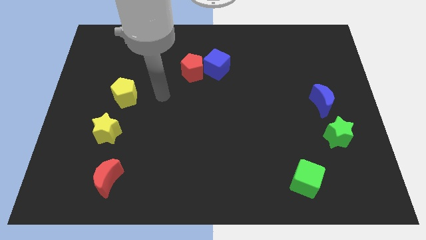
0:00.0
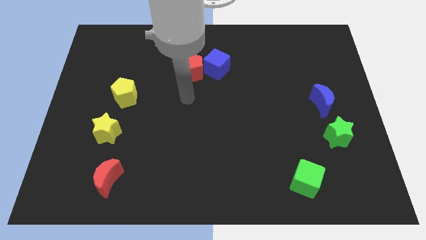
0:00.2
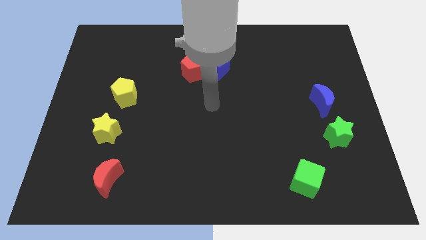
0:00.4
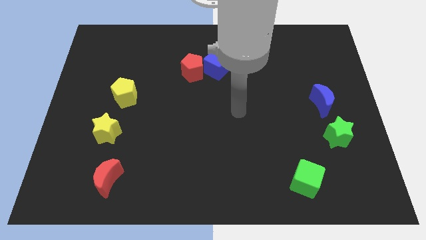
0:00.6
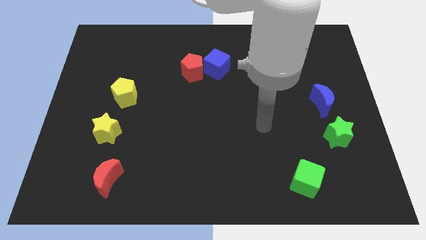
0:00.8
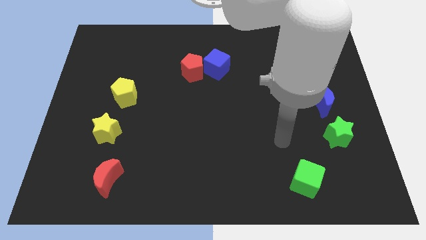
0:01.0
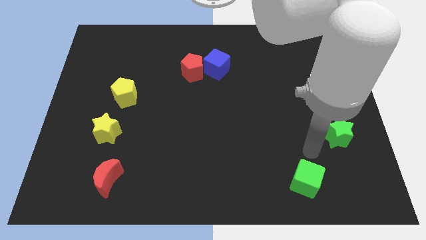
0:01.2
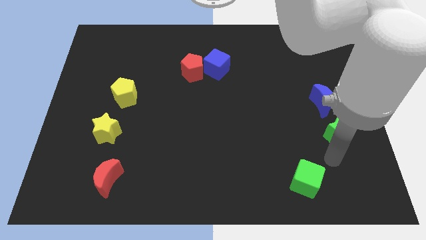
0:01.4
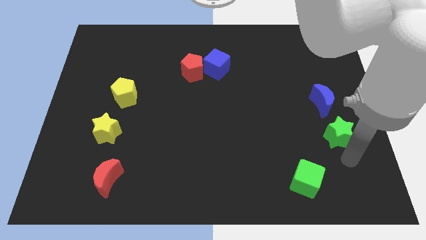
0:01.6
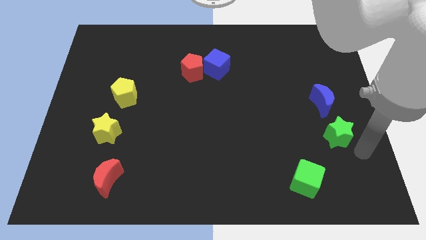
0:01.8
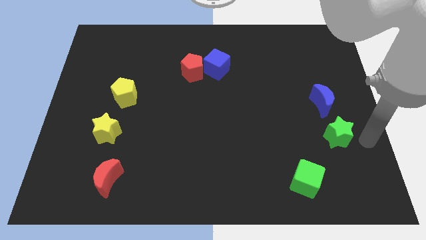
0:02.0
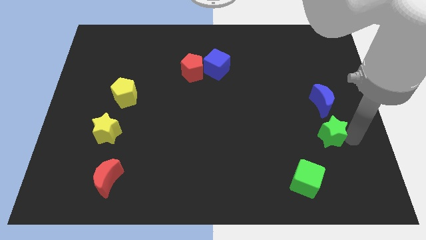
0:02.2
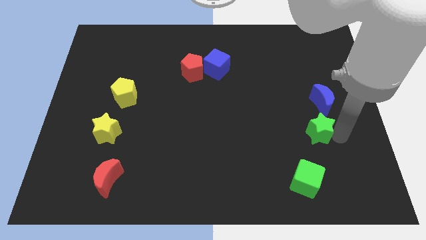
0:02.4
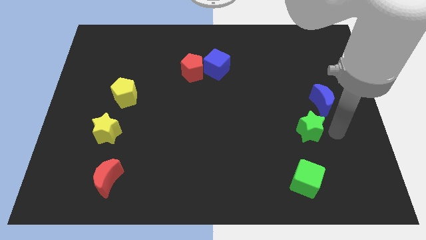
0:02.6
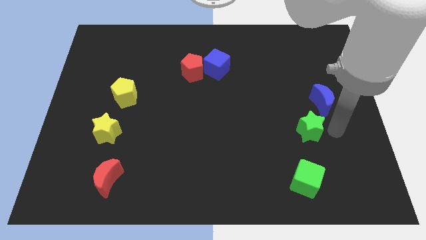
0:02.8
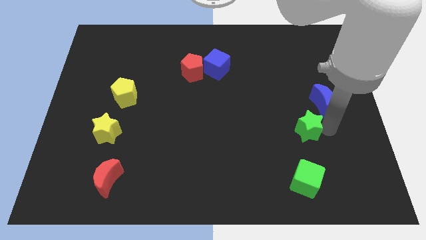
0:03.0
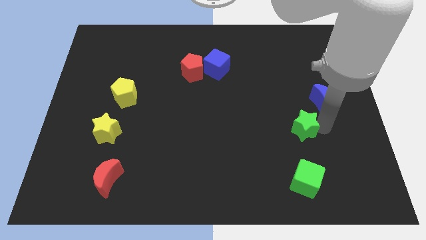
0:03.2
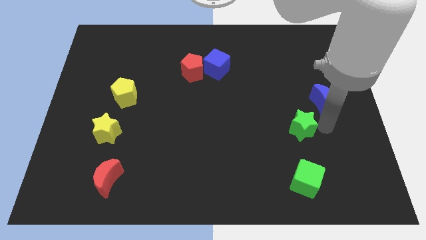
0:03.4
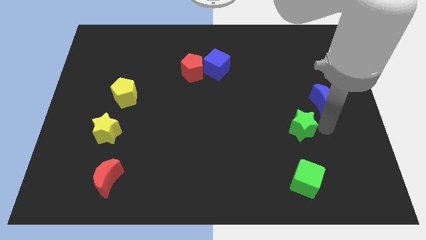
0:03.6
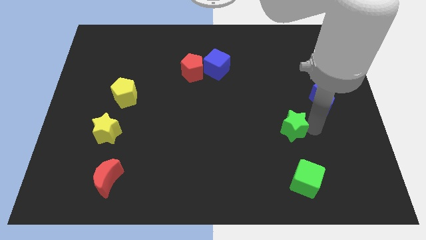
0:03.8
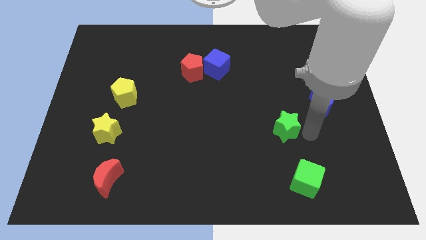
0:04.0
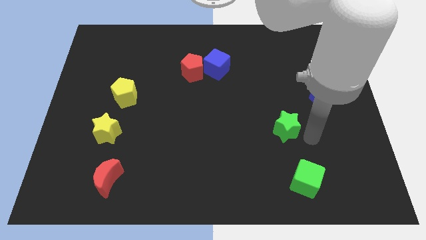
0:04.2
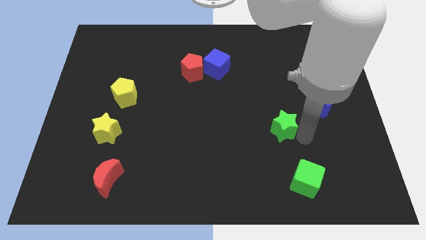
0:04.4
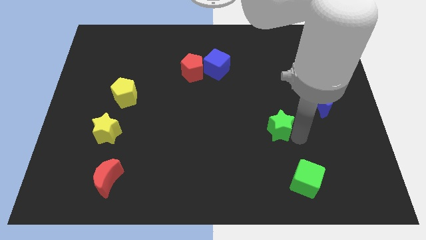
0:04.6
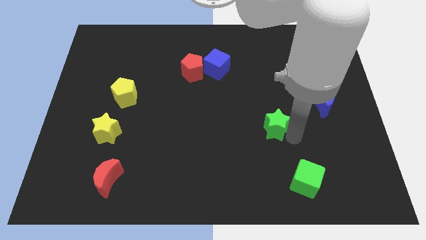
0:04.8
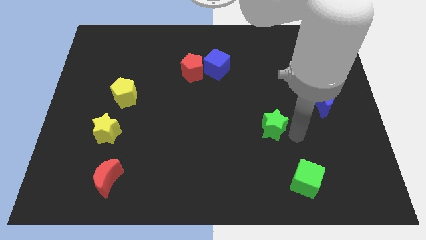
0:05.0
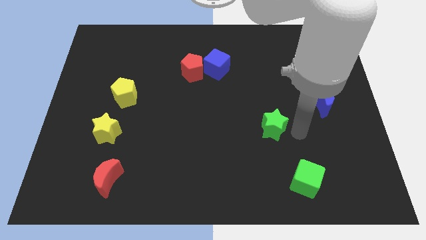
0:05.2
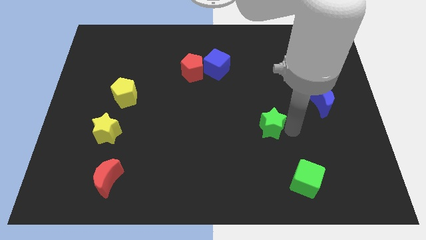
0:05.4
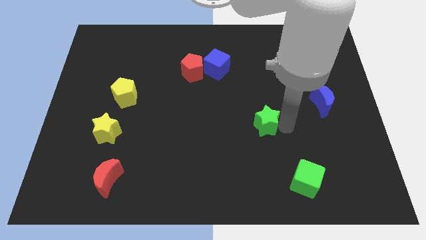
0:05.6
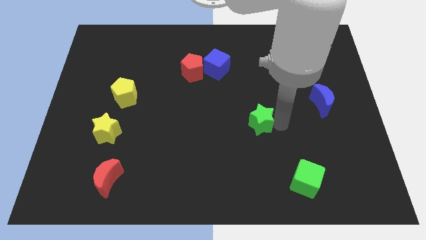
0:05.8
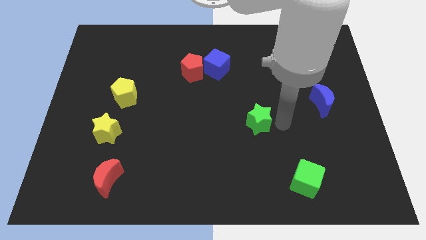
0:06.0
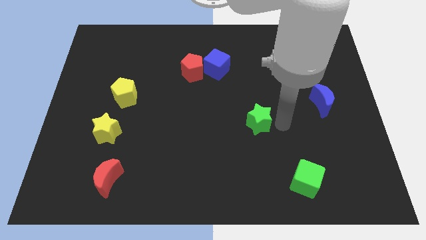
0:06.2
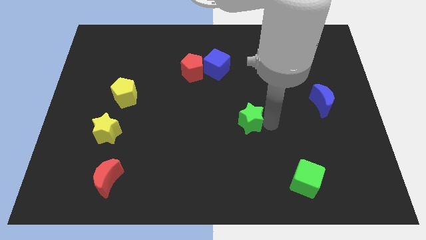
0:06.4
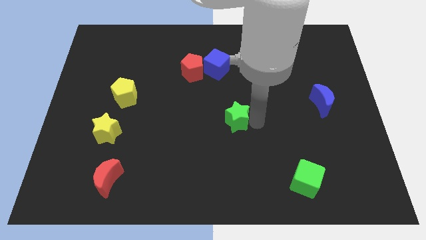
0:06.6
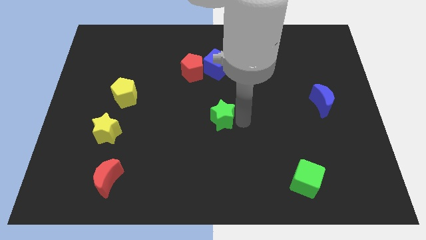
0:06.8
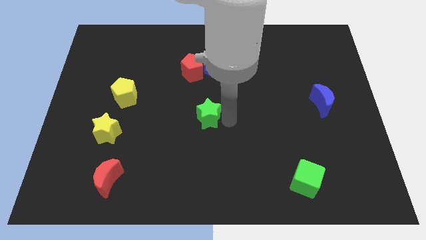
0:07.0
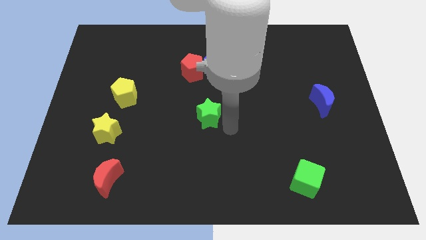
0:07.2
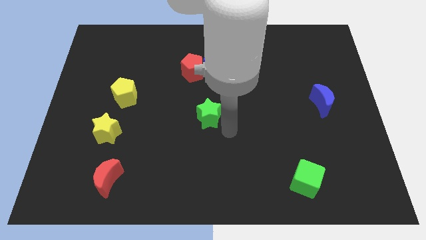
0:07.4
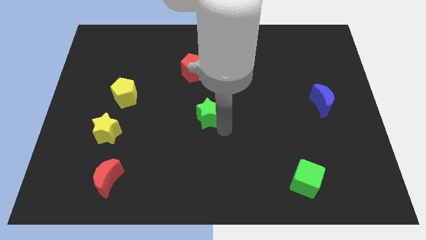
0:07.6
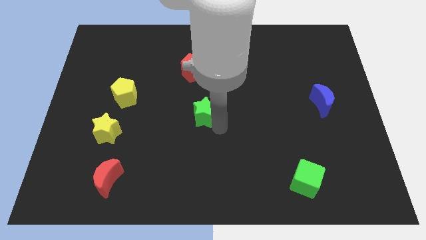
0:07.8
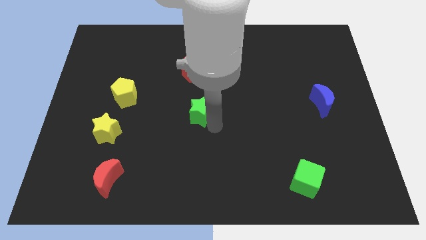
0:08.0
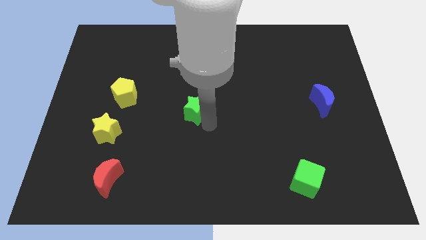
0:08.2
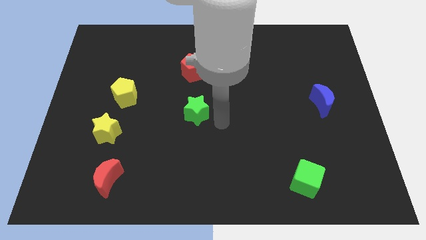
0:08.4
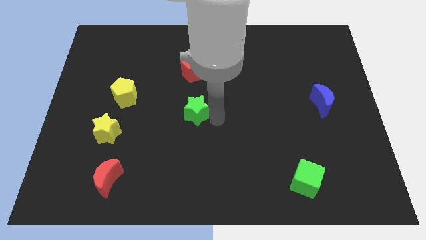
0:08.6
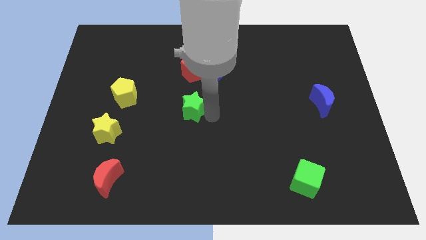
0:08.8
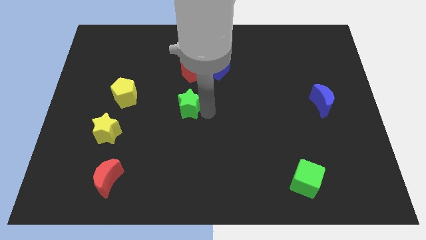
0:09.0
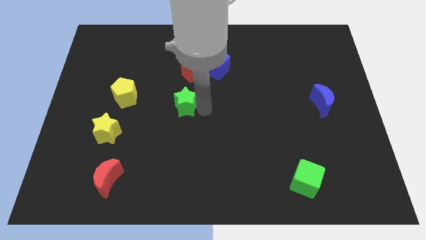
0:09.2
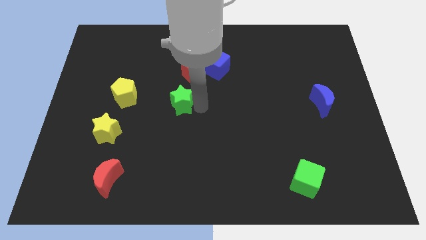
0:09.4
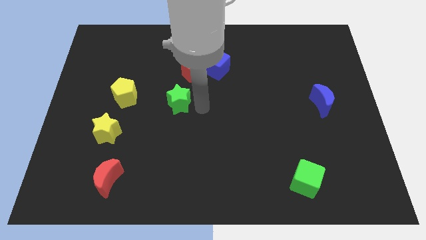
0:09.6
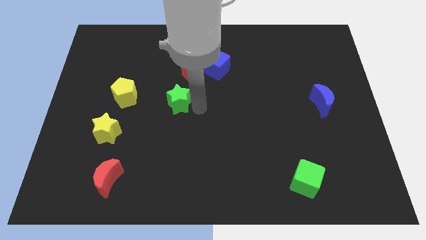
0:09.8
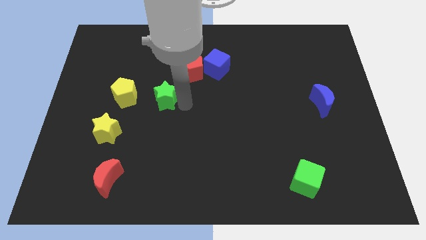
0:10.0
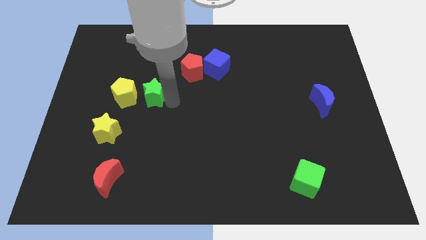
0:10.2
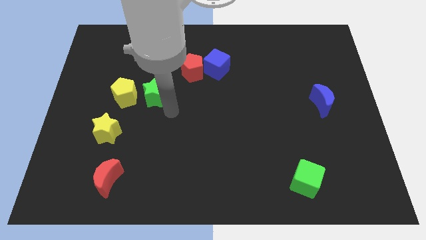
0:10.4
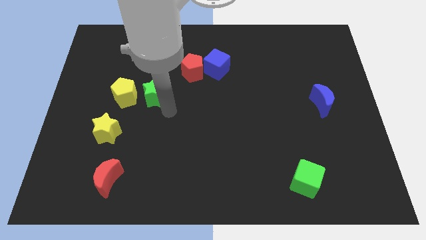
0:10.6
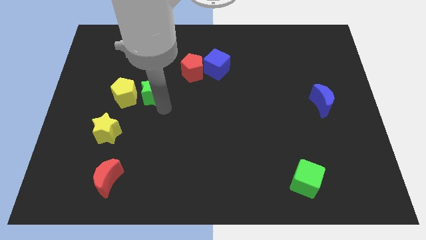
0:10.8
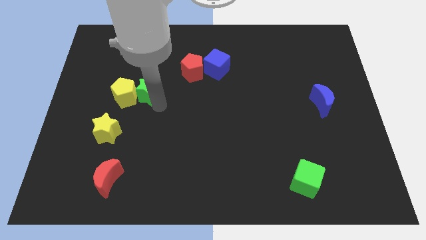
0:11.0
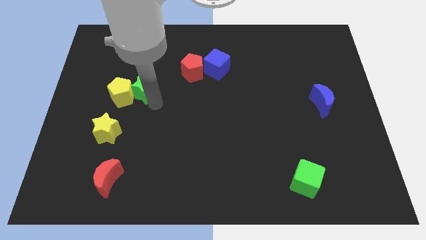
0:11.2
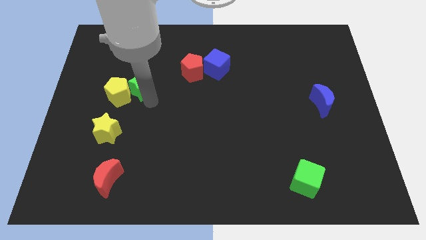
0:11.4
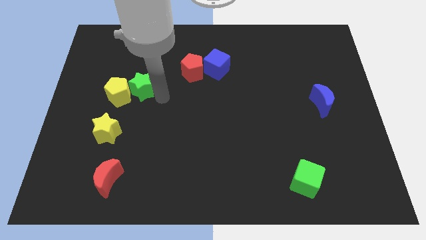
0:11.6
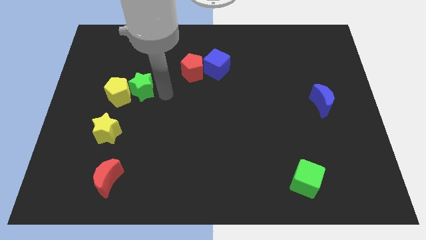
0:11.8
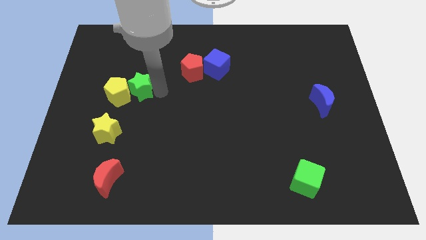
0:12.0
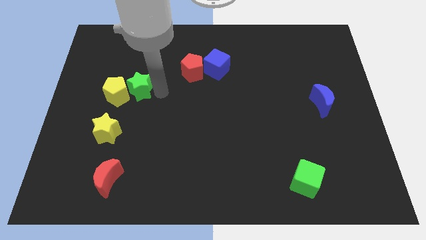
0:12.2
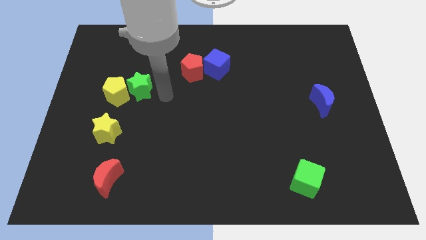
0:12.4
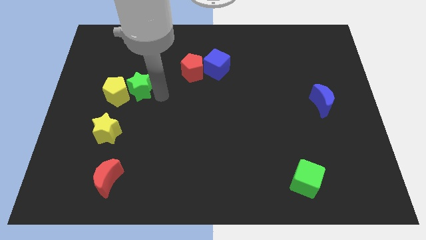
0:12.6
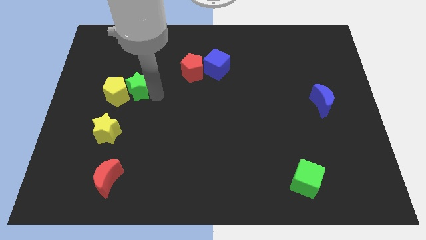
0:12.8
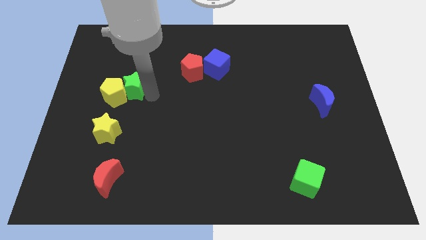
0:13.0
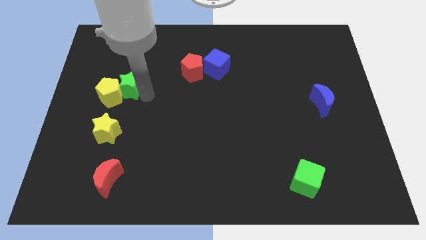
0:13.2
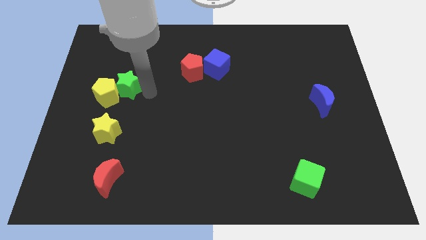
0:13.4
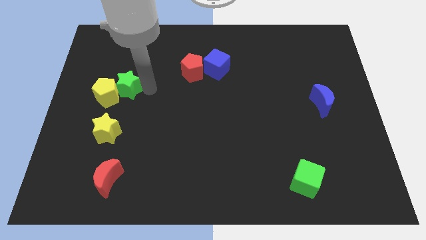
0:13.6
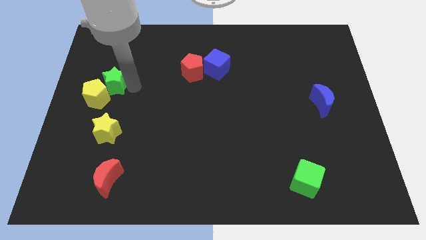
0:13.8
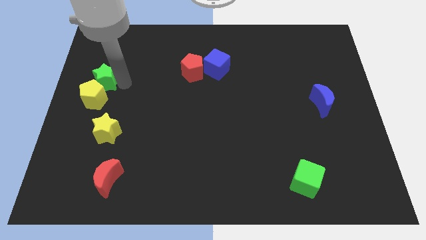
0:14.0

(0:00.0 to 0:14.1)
slide the green star to the left side
